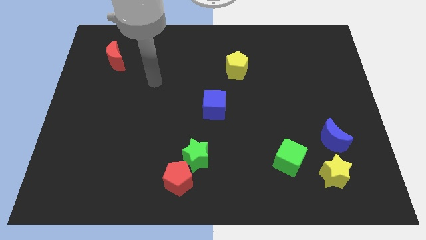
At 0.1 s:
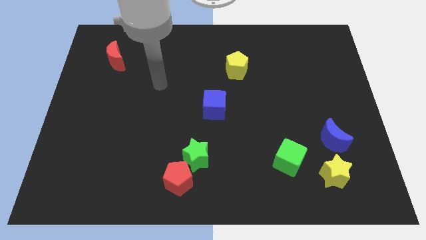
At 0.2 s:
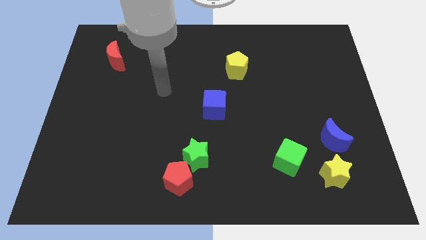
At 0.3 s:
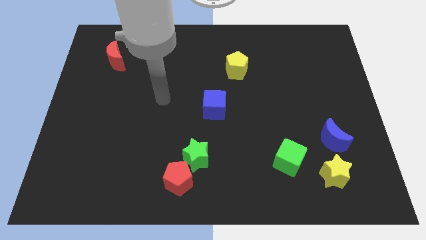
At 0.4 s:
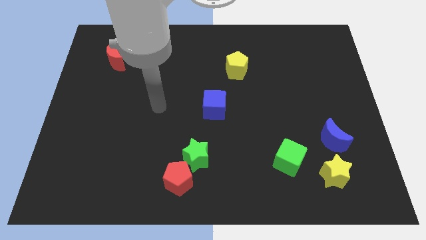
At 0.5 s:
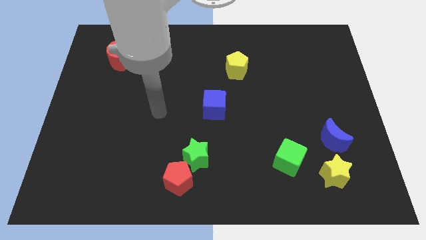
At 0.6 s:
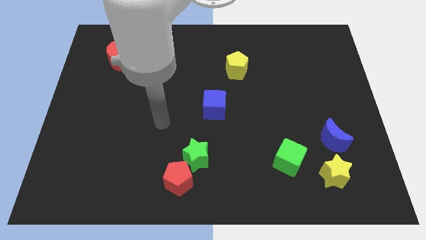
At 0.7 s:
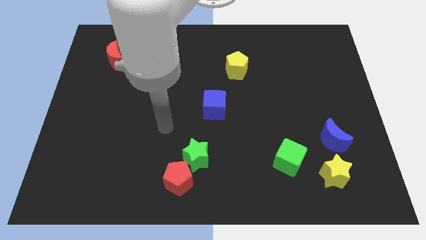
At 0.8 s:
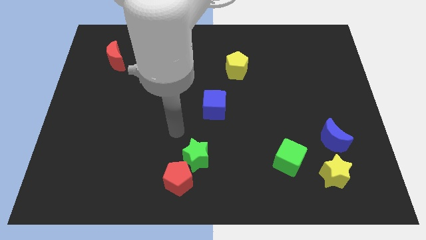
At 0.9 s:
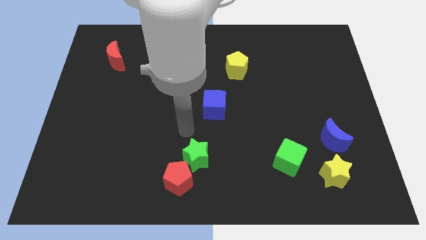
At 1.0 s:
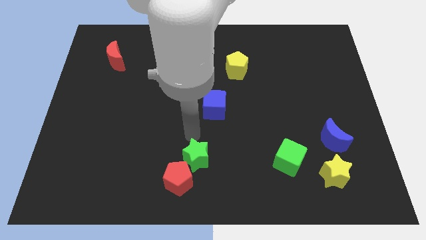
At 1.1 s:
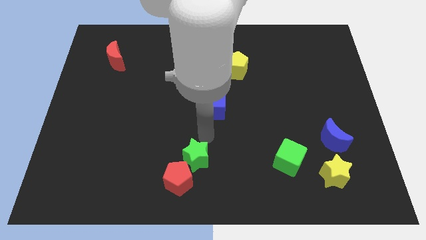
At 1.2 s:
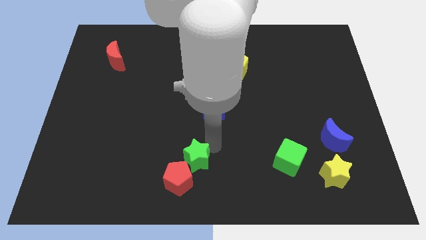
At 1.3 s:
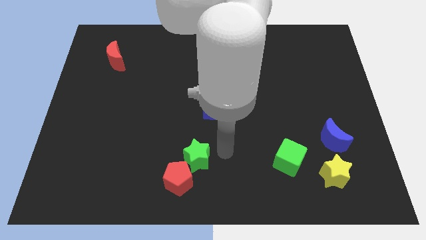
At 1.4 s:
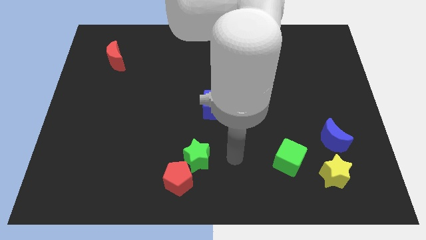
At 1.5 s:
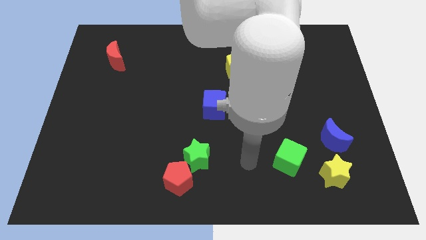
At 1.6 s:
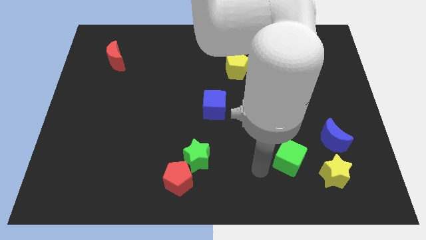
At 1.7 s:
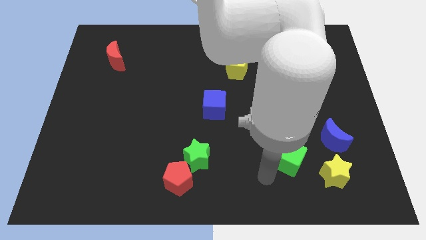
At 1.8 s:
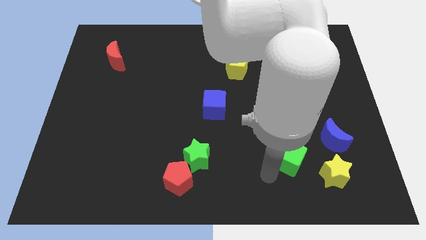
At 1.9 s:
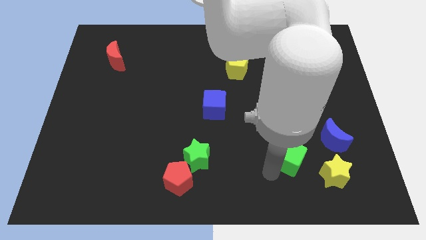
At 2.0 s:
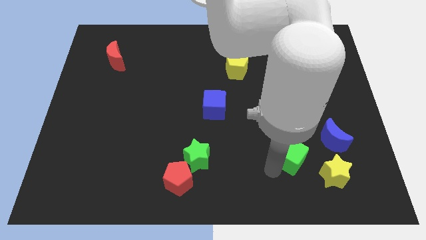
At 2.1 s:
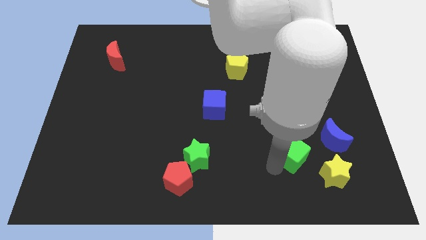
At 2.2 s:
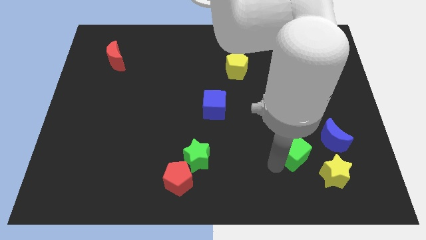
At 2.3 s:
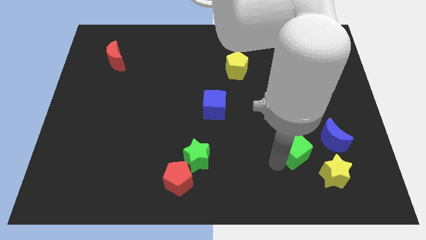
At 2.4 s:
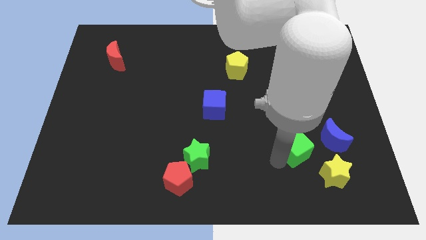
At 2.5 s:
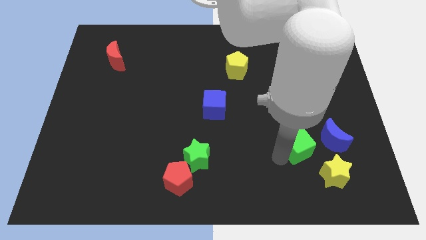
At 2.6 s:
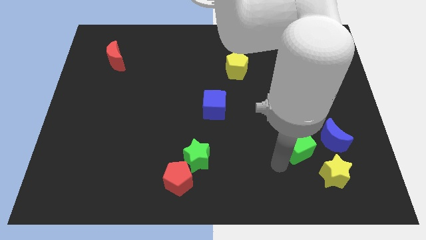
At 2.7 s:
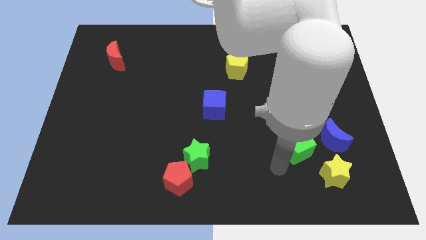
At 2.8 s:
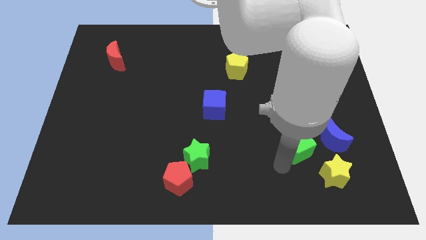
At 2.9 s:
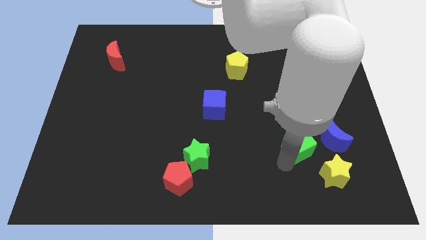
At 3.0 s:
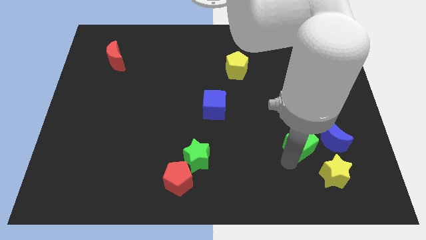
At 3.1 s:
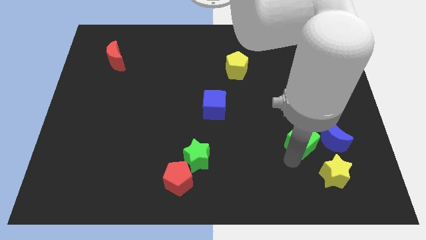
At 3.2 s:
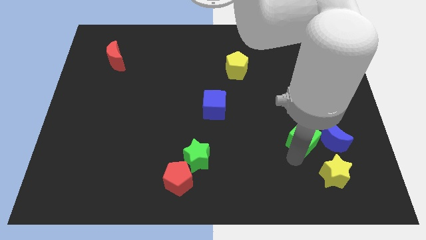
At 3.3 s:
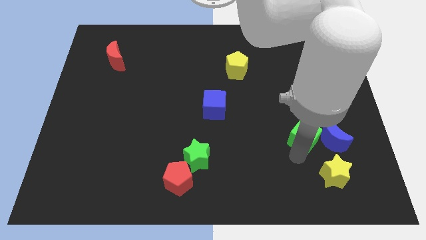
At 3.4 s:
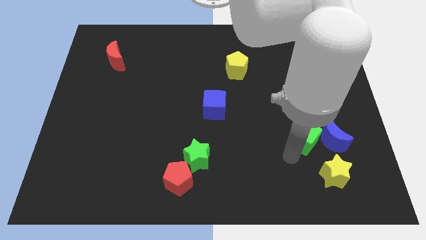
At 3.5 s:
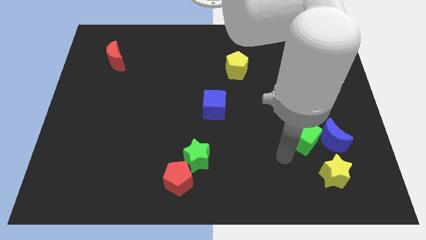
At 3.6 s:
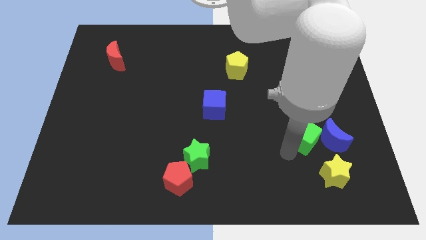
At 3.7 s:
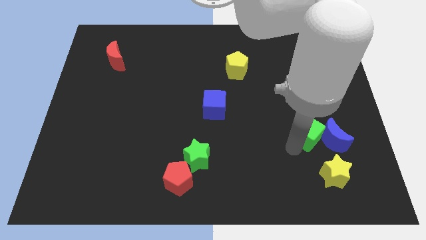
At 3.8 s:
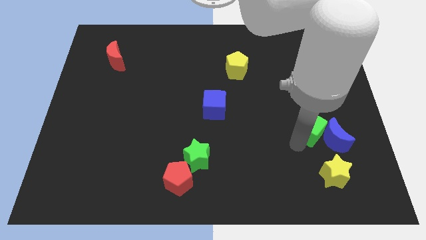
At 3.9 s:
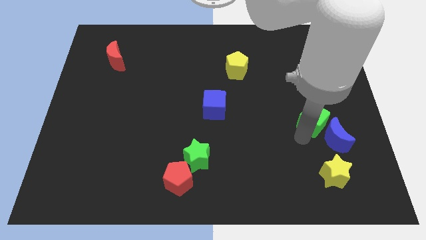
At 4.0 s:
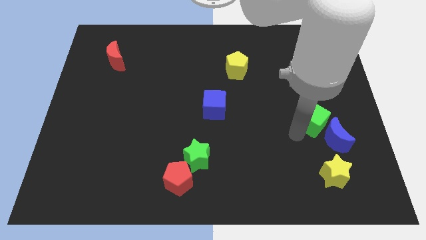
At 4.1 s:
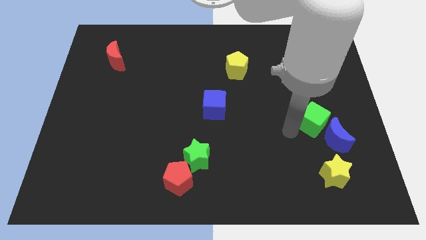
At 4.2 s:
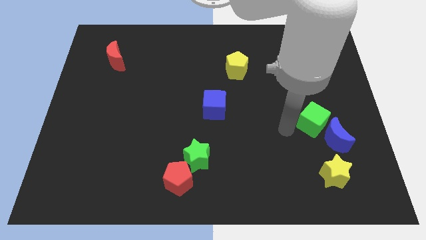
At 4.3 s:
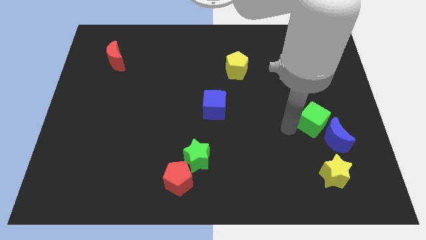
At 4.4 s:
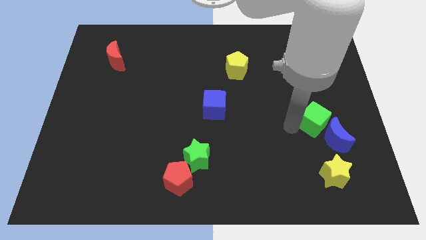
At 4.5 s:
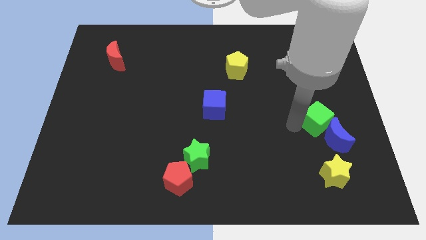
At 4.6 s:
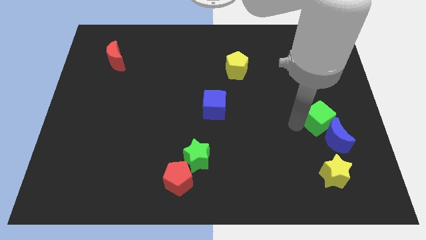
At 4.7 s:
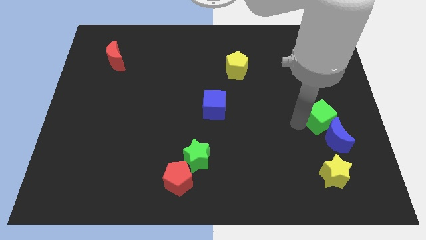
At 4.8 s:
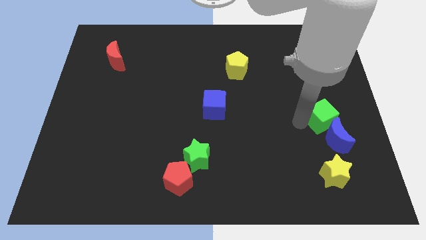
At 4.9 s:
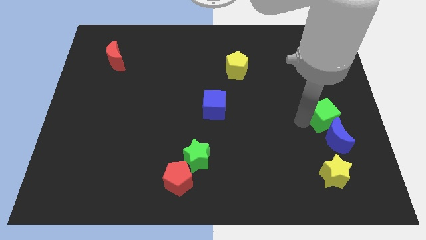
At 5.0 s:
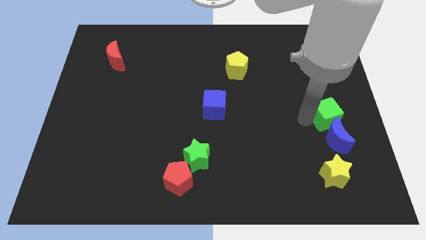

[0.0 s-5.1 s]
move the green cube to the right side

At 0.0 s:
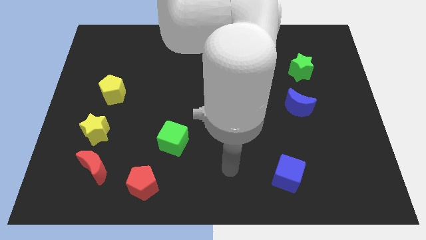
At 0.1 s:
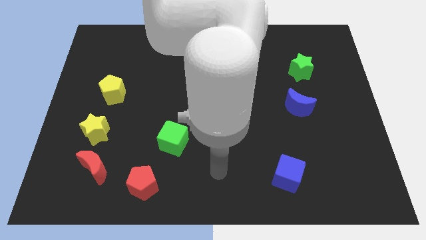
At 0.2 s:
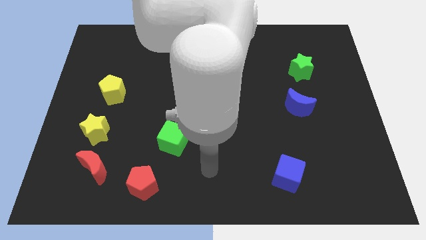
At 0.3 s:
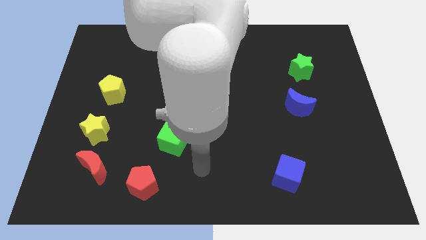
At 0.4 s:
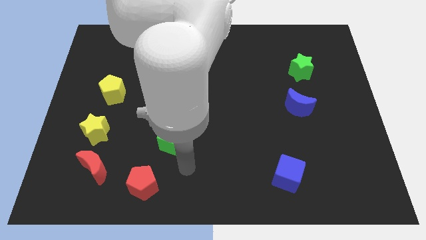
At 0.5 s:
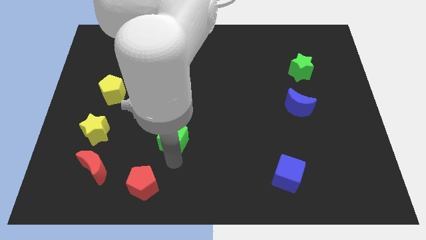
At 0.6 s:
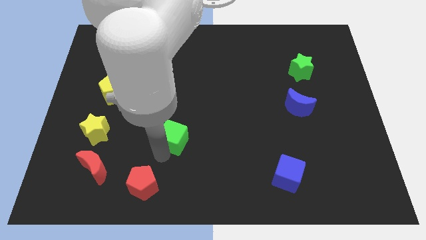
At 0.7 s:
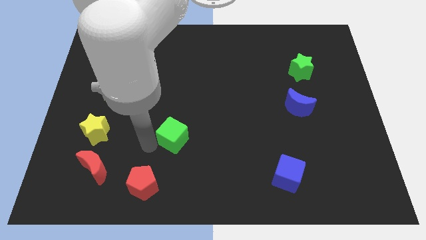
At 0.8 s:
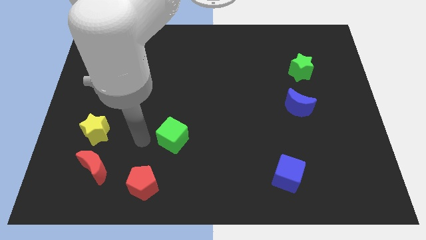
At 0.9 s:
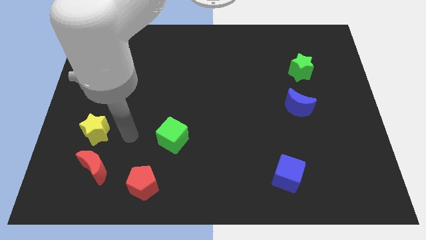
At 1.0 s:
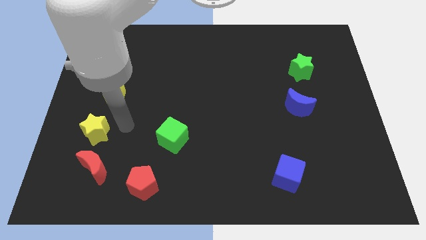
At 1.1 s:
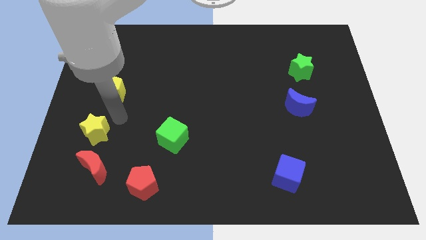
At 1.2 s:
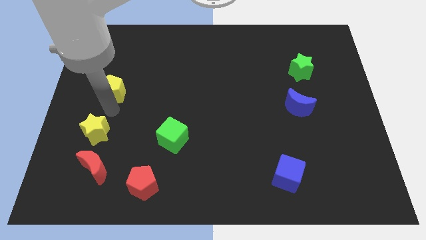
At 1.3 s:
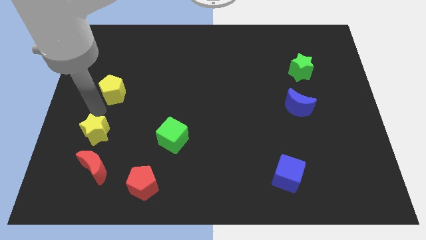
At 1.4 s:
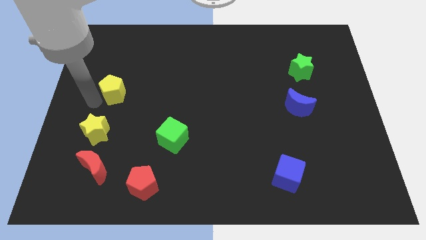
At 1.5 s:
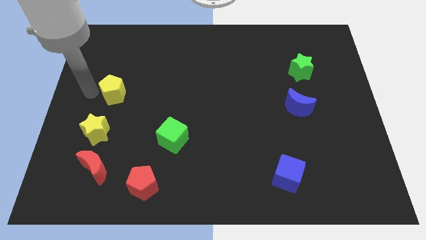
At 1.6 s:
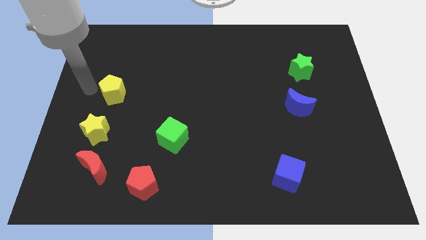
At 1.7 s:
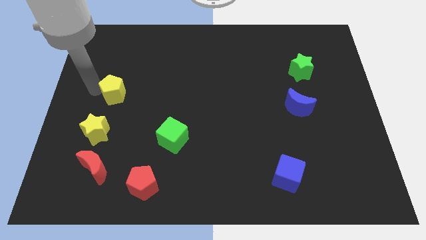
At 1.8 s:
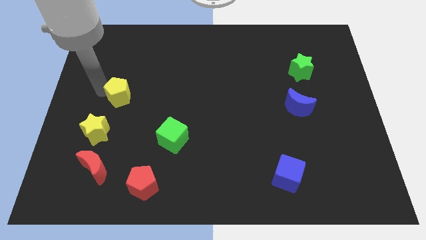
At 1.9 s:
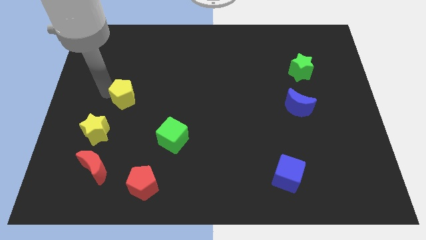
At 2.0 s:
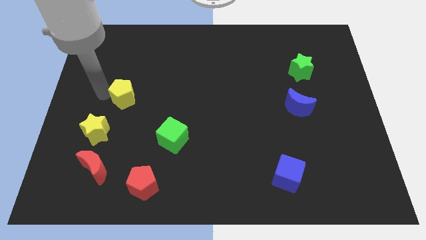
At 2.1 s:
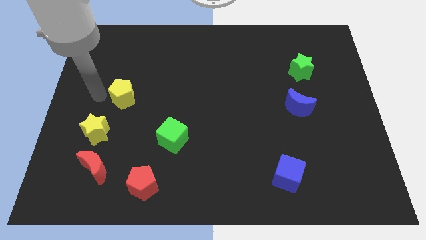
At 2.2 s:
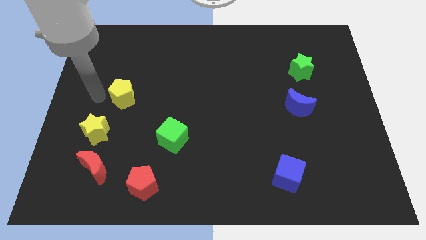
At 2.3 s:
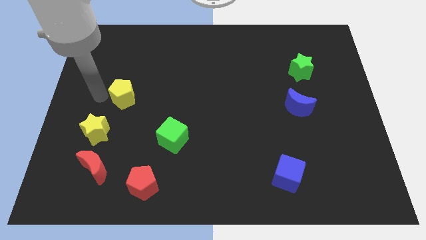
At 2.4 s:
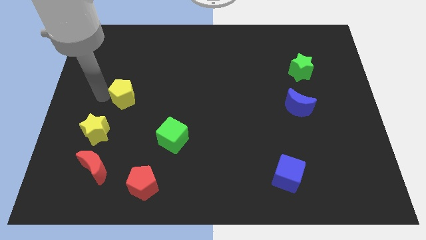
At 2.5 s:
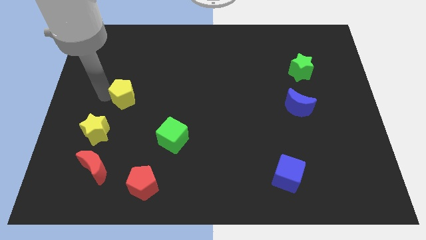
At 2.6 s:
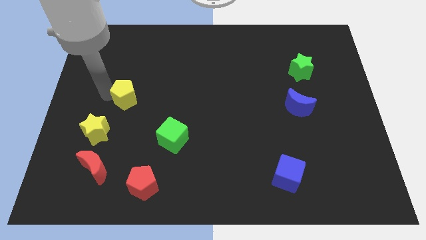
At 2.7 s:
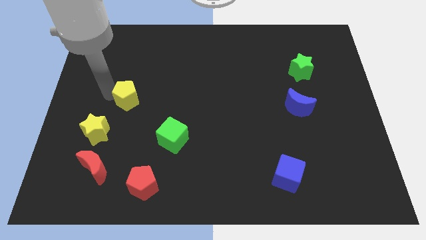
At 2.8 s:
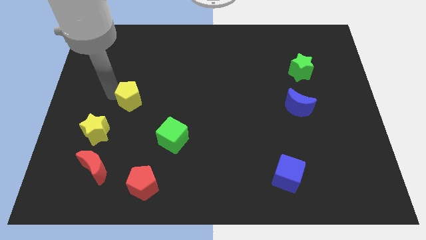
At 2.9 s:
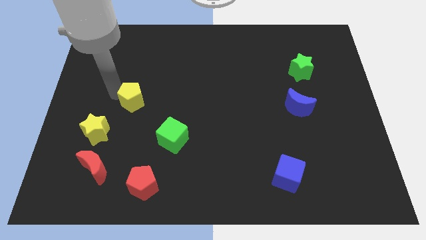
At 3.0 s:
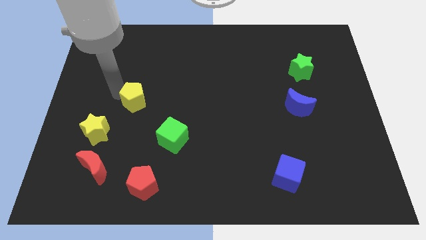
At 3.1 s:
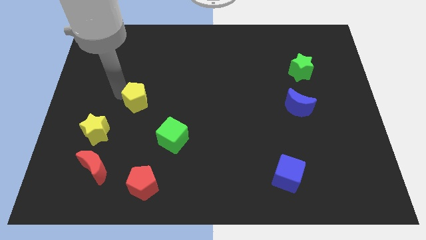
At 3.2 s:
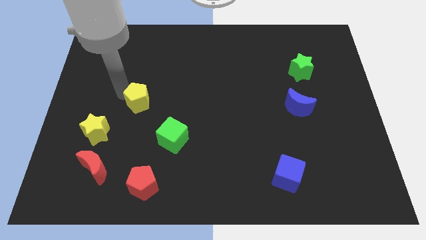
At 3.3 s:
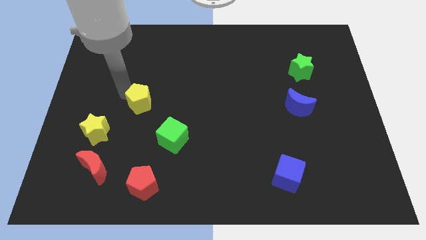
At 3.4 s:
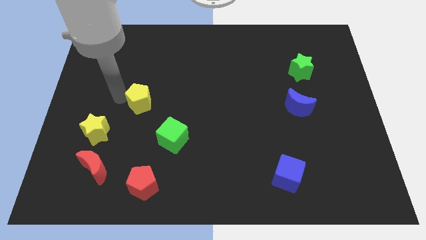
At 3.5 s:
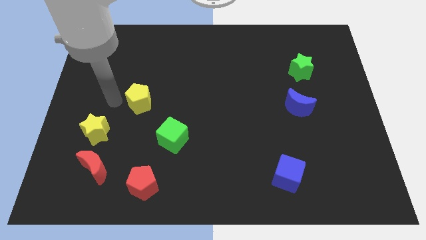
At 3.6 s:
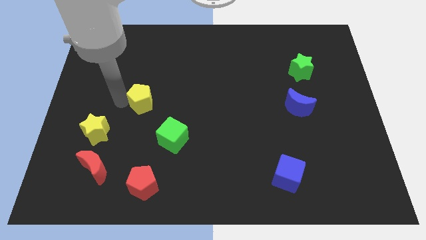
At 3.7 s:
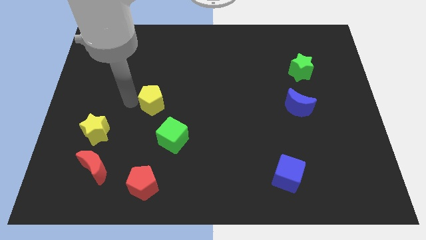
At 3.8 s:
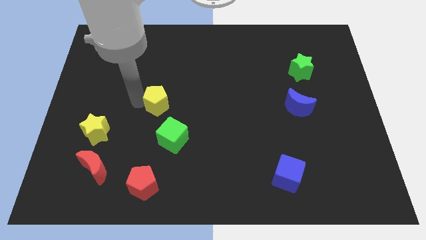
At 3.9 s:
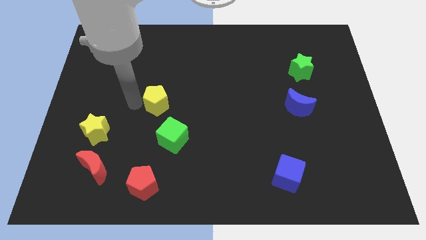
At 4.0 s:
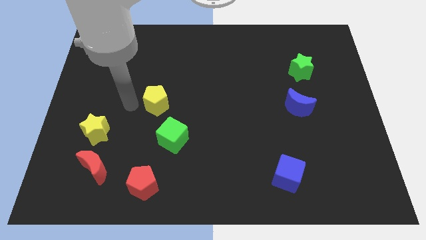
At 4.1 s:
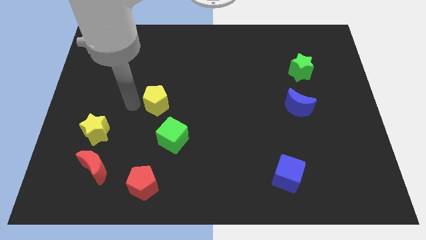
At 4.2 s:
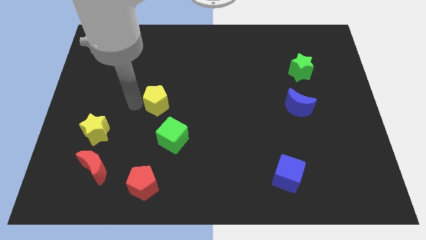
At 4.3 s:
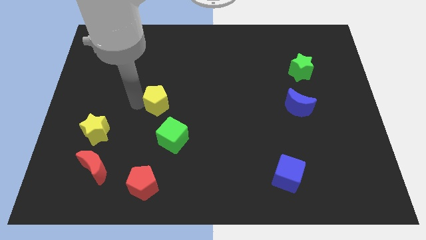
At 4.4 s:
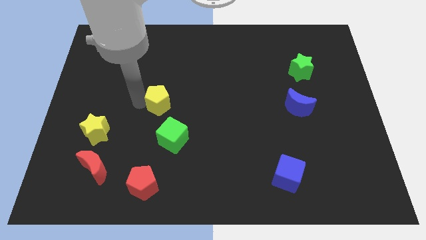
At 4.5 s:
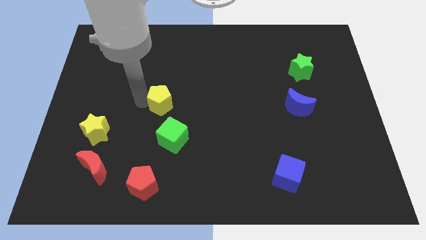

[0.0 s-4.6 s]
move the yellow pentagon to the center
